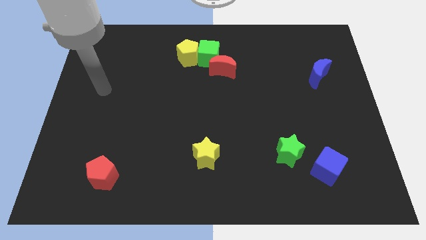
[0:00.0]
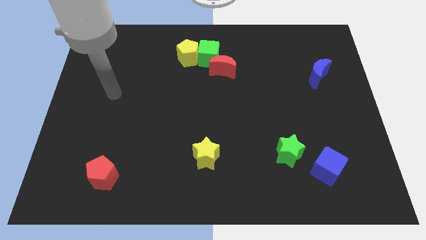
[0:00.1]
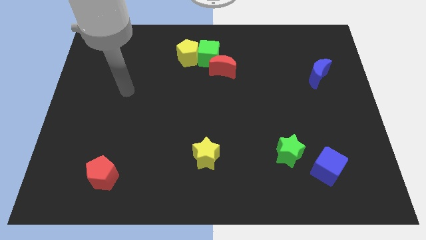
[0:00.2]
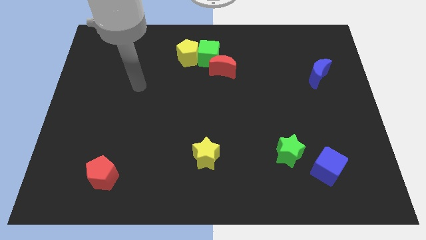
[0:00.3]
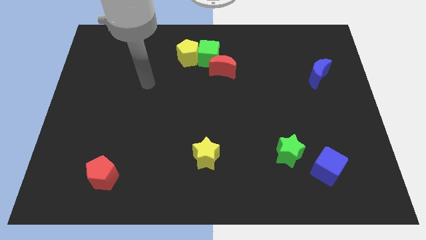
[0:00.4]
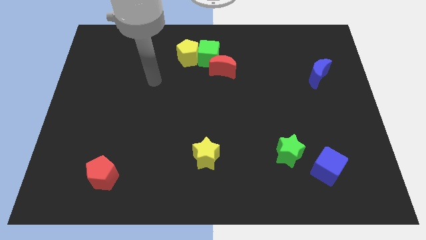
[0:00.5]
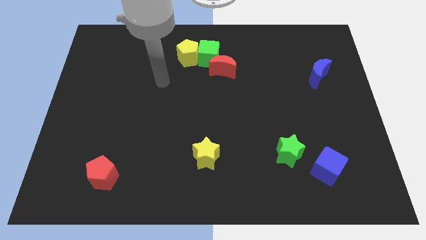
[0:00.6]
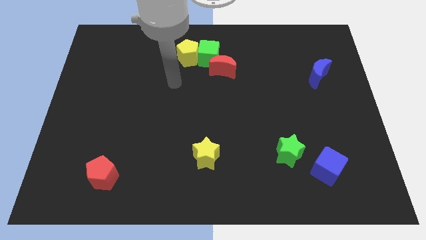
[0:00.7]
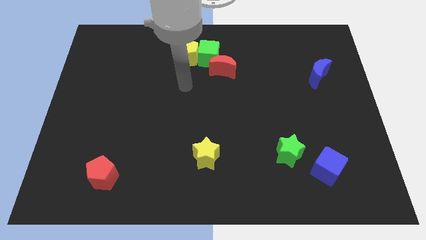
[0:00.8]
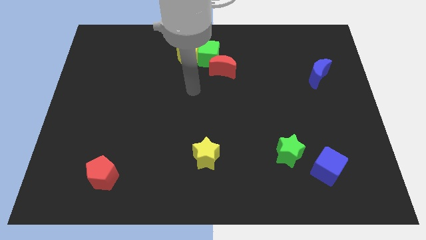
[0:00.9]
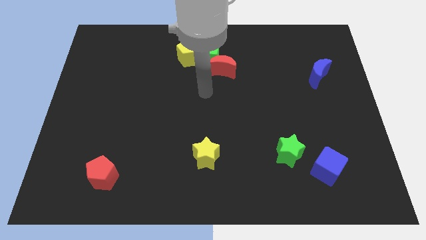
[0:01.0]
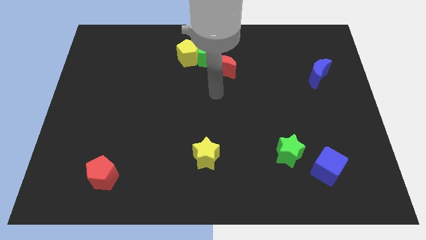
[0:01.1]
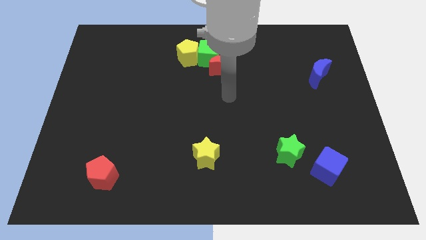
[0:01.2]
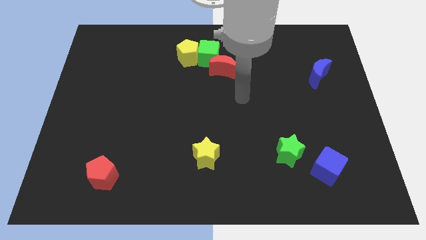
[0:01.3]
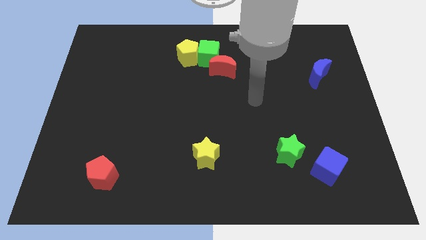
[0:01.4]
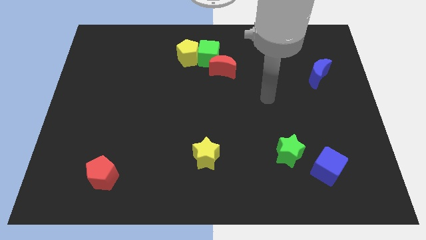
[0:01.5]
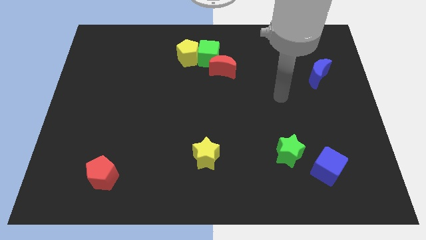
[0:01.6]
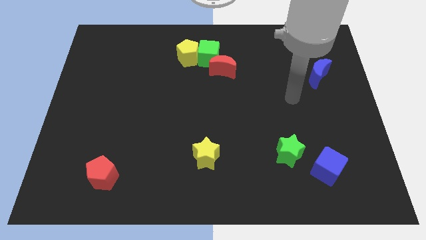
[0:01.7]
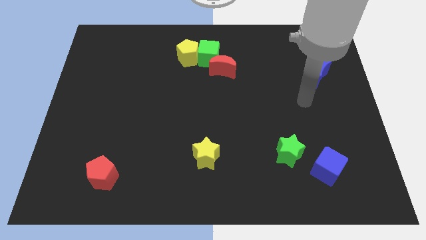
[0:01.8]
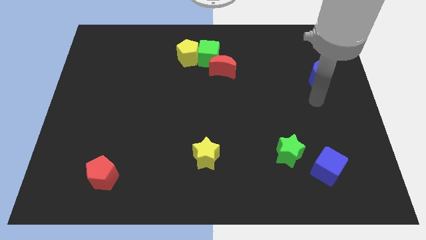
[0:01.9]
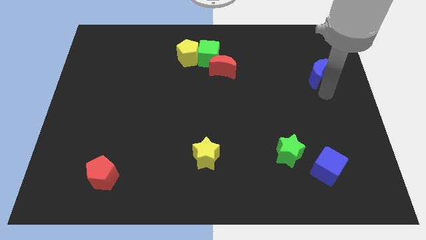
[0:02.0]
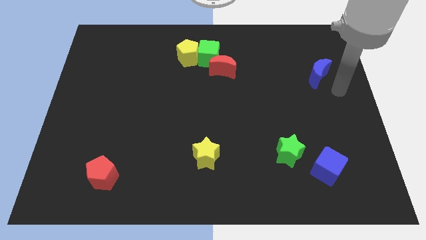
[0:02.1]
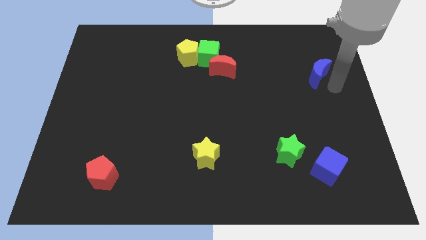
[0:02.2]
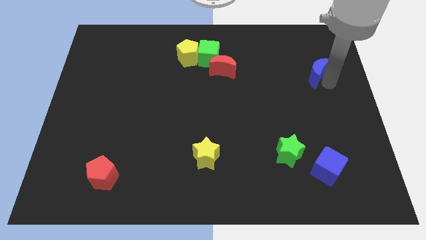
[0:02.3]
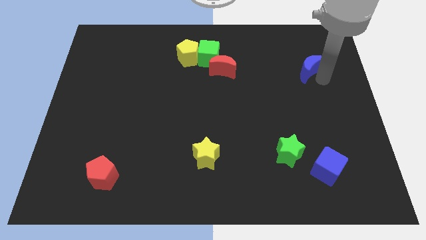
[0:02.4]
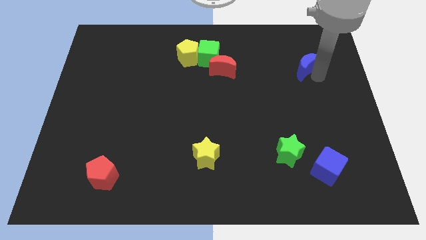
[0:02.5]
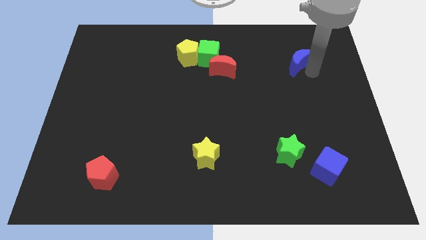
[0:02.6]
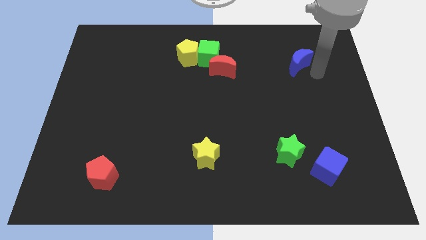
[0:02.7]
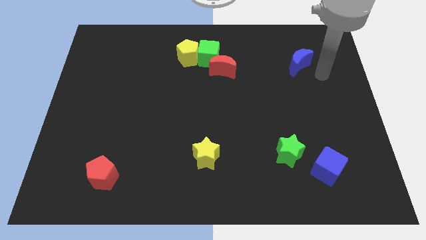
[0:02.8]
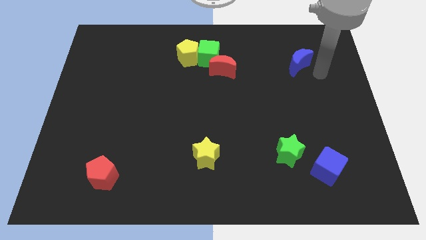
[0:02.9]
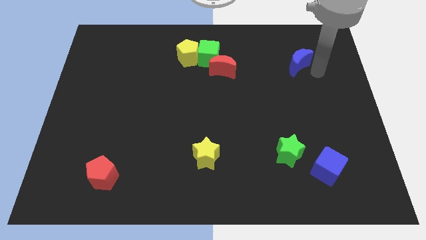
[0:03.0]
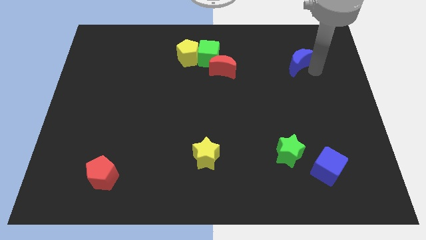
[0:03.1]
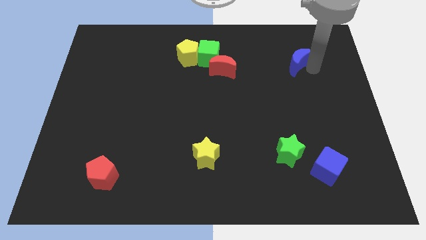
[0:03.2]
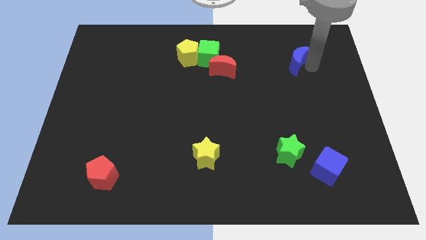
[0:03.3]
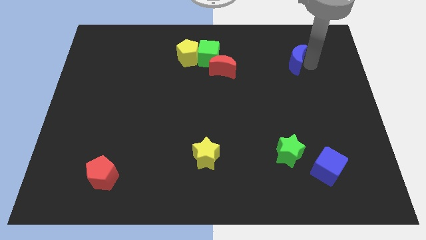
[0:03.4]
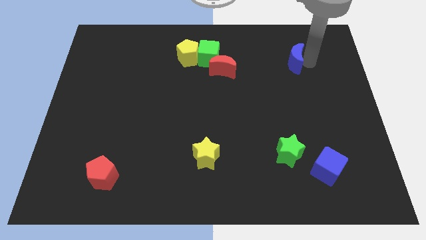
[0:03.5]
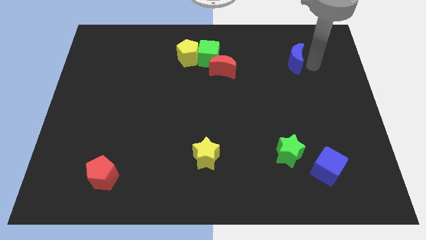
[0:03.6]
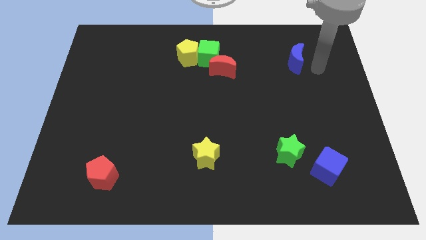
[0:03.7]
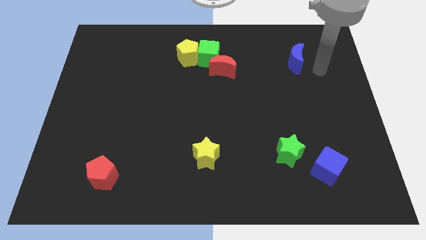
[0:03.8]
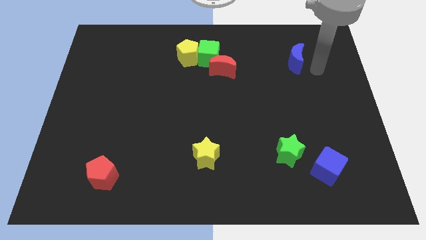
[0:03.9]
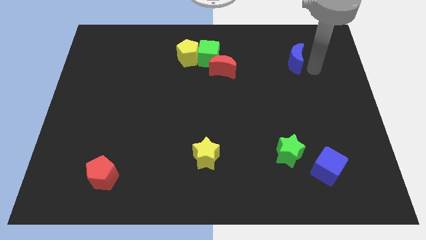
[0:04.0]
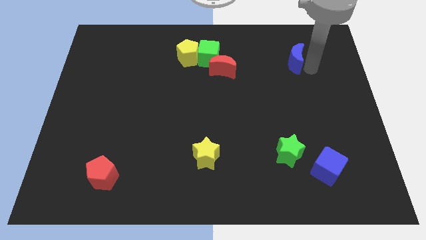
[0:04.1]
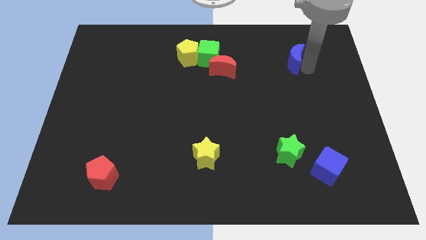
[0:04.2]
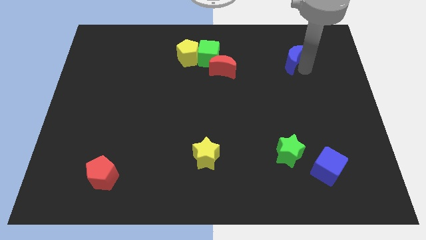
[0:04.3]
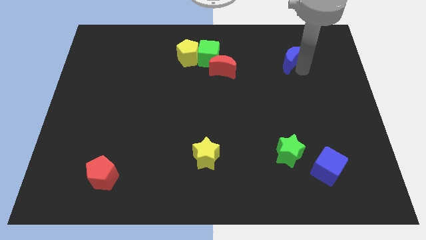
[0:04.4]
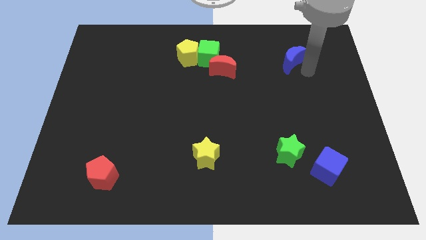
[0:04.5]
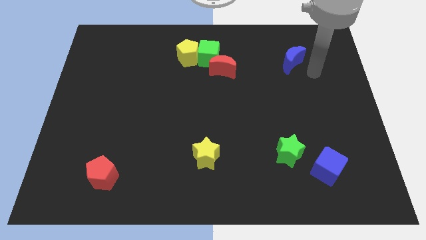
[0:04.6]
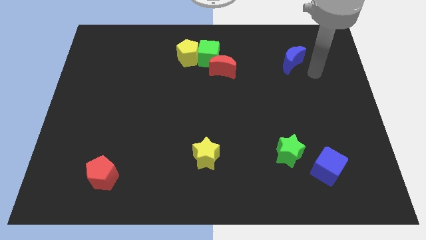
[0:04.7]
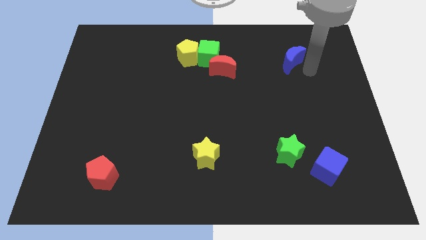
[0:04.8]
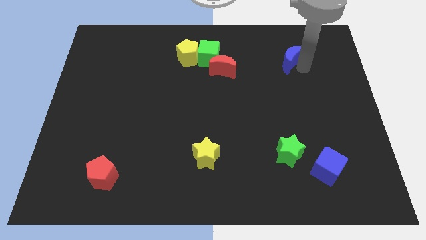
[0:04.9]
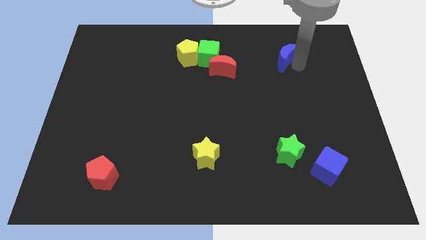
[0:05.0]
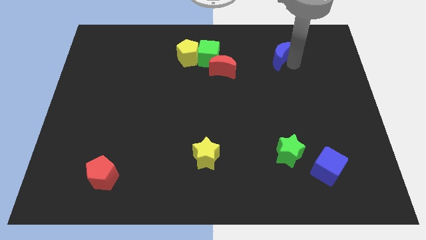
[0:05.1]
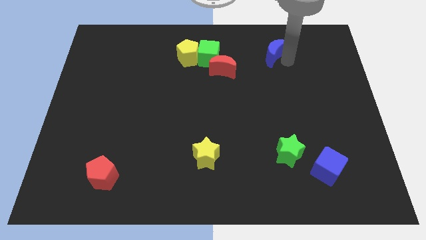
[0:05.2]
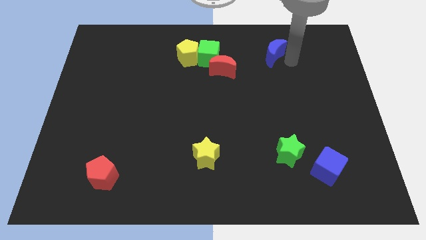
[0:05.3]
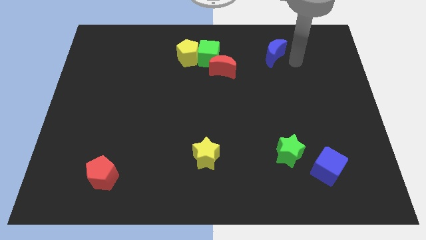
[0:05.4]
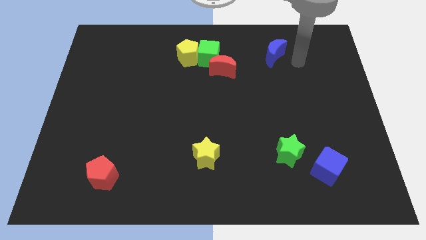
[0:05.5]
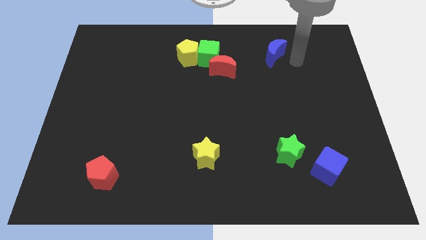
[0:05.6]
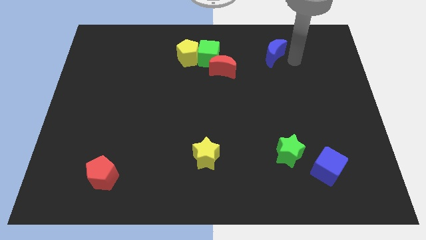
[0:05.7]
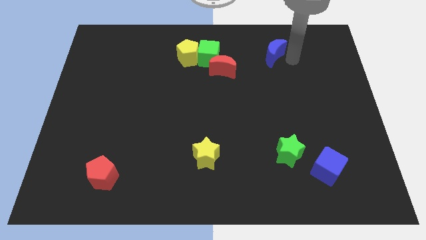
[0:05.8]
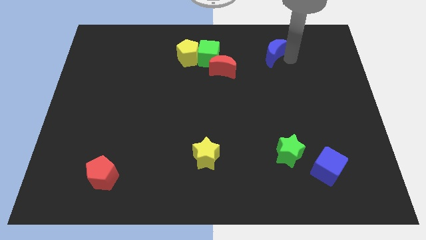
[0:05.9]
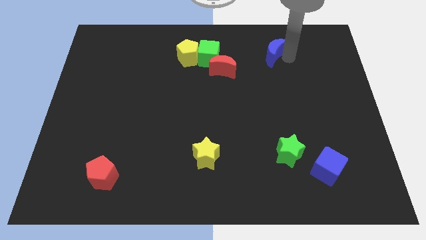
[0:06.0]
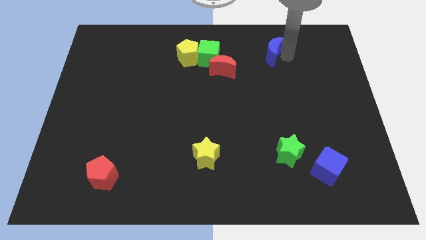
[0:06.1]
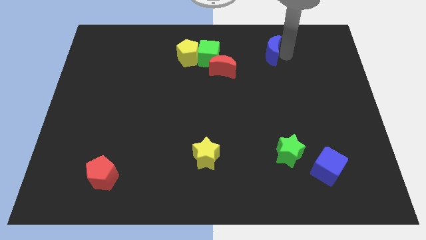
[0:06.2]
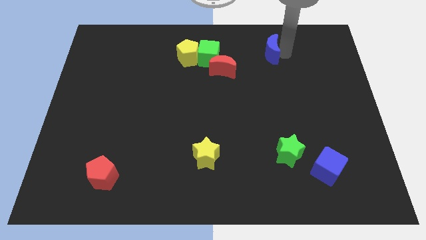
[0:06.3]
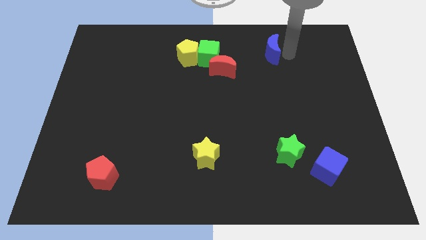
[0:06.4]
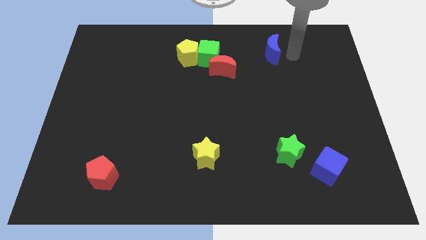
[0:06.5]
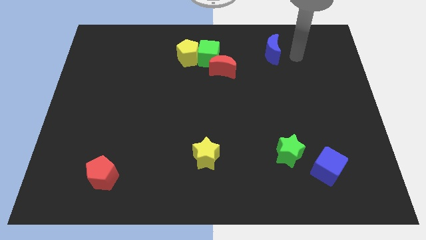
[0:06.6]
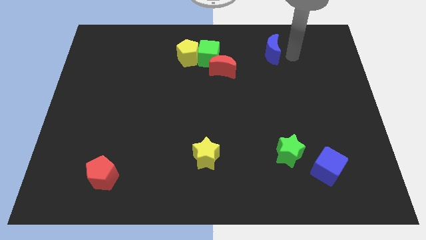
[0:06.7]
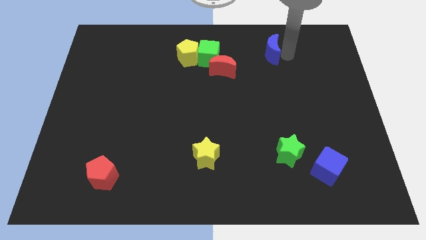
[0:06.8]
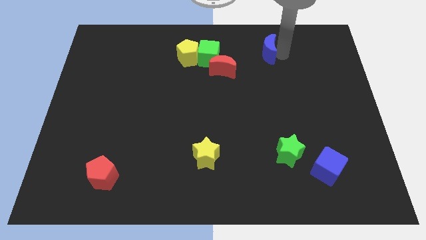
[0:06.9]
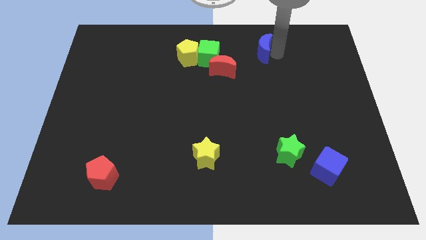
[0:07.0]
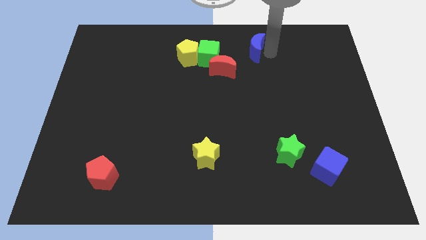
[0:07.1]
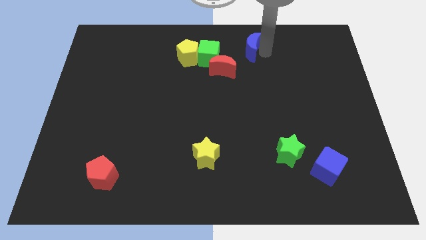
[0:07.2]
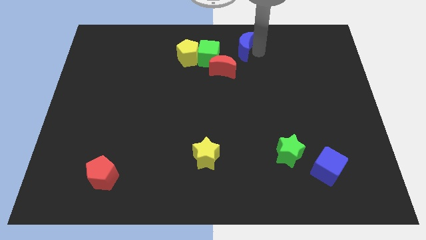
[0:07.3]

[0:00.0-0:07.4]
push the blue moon to the top
